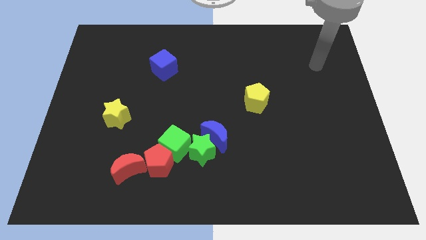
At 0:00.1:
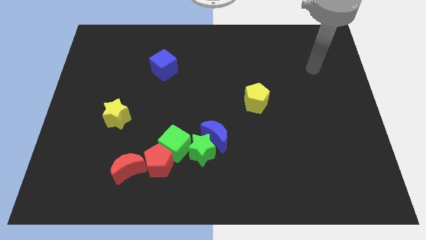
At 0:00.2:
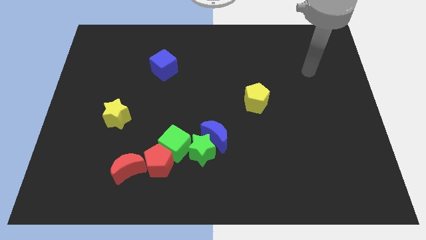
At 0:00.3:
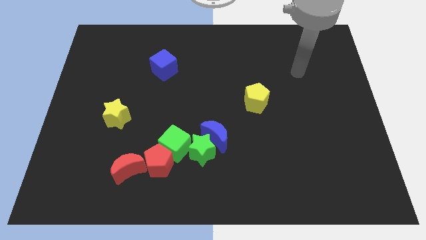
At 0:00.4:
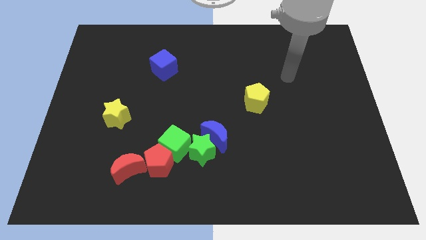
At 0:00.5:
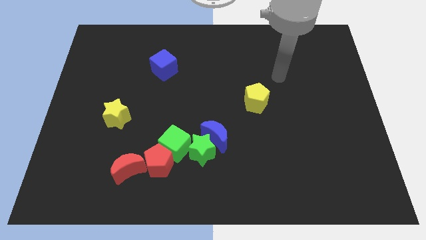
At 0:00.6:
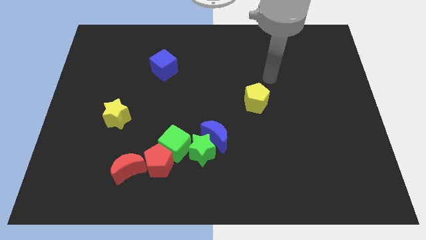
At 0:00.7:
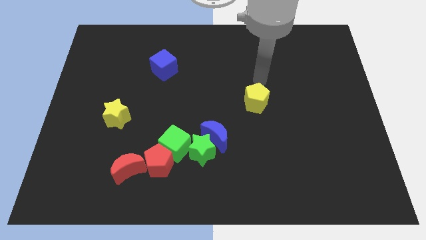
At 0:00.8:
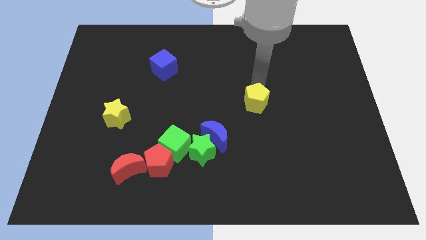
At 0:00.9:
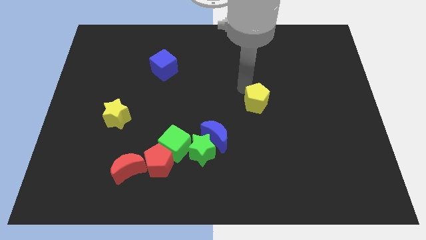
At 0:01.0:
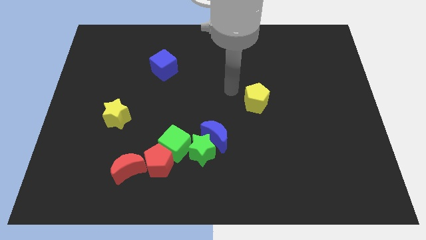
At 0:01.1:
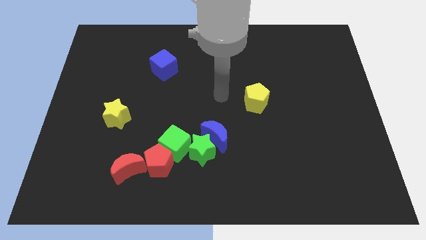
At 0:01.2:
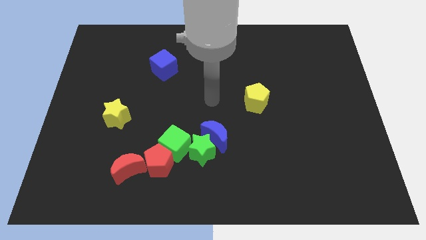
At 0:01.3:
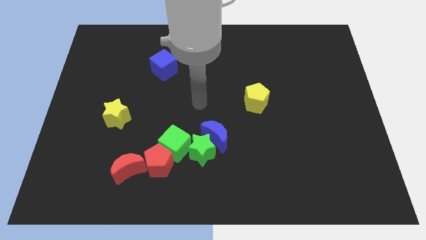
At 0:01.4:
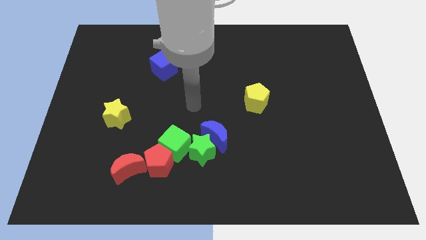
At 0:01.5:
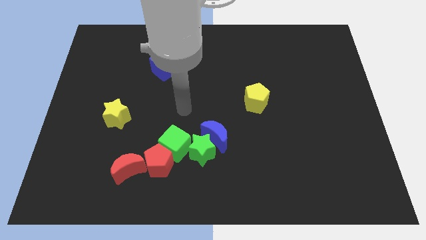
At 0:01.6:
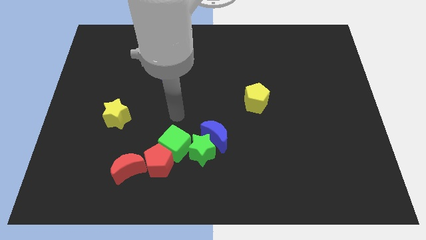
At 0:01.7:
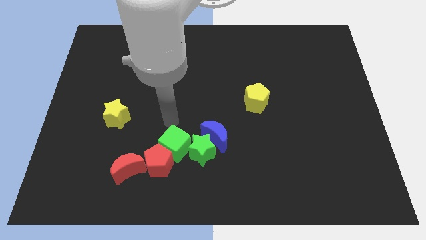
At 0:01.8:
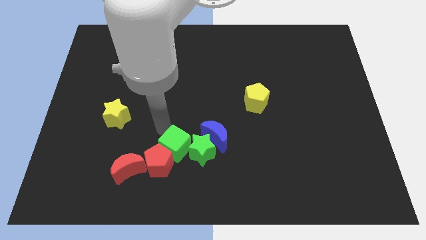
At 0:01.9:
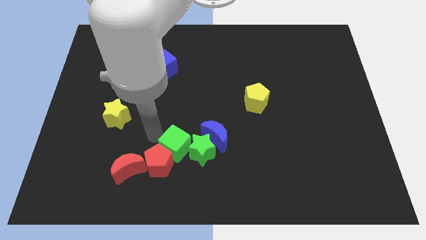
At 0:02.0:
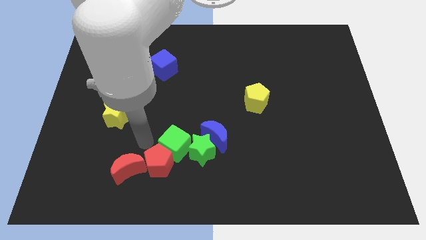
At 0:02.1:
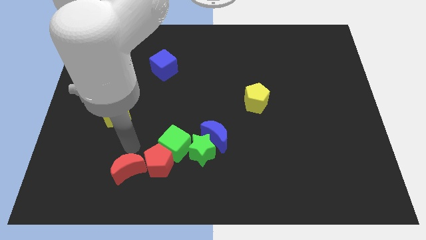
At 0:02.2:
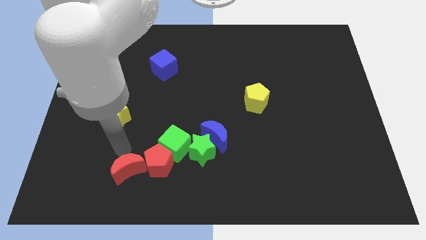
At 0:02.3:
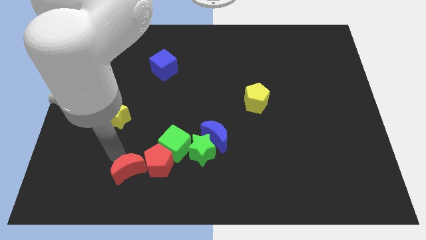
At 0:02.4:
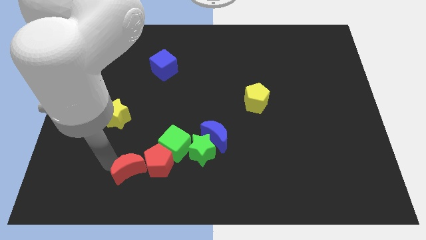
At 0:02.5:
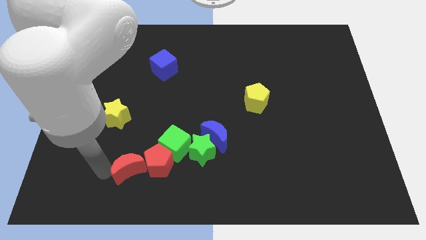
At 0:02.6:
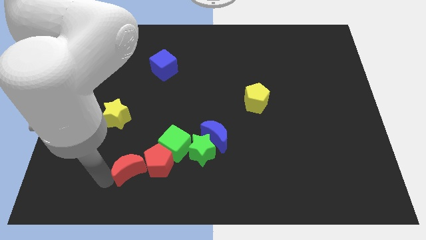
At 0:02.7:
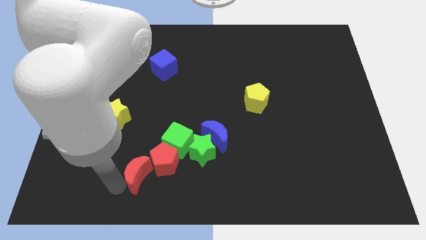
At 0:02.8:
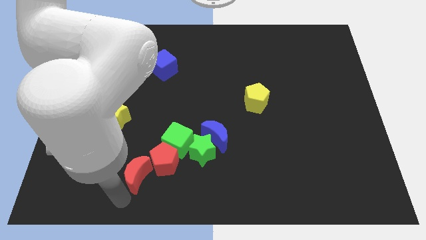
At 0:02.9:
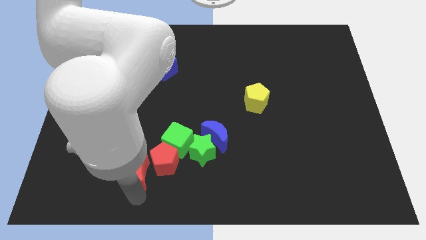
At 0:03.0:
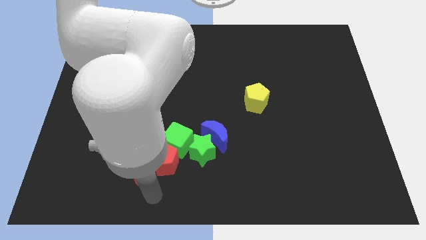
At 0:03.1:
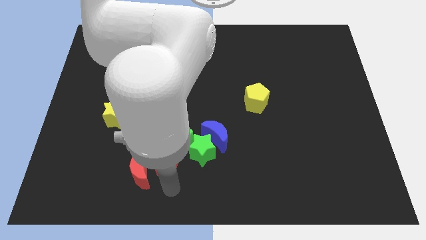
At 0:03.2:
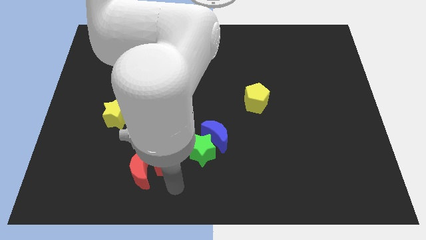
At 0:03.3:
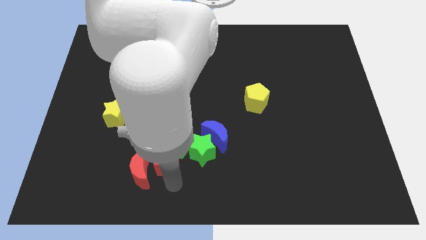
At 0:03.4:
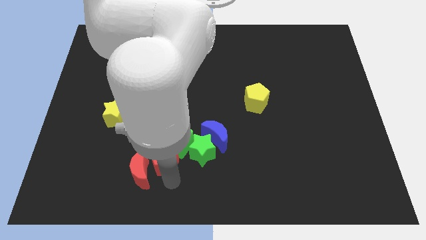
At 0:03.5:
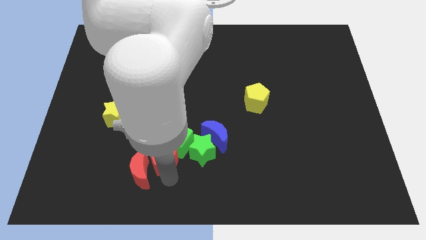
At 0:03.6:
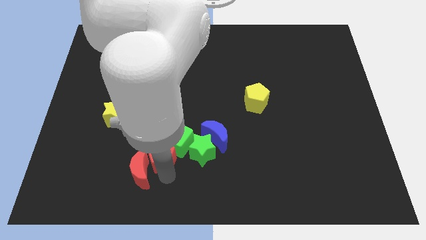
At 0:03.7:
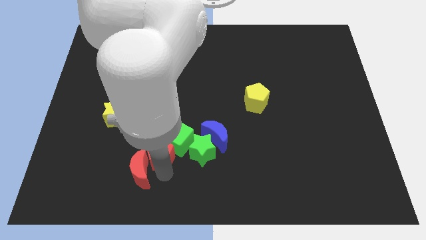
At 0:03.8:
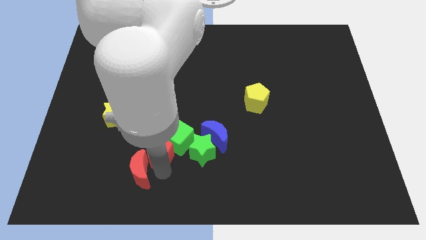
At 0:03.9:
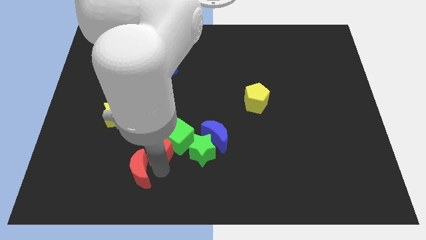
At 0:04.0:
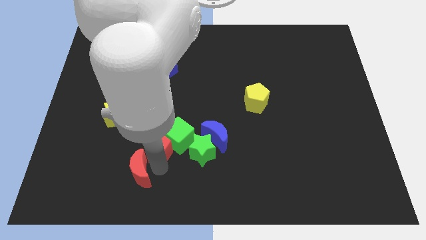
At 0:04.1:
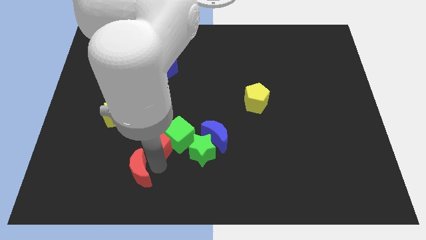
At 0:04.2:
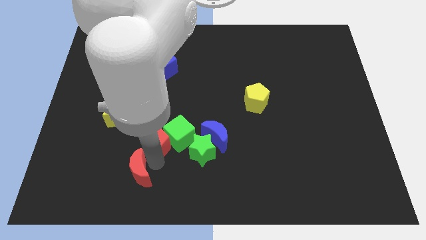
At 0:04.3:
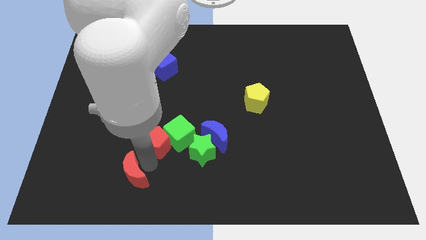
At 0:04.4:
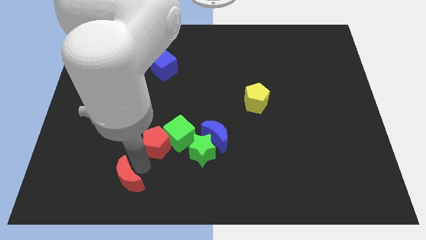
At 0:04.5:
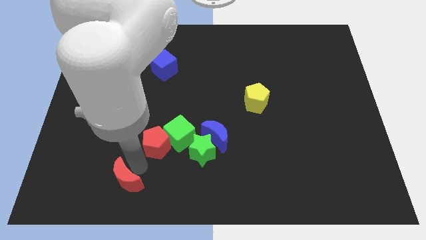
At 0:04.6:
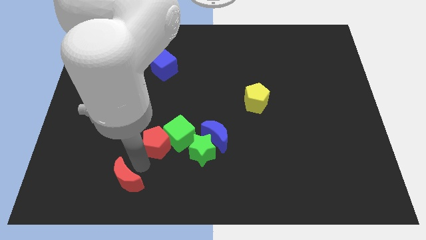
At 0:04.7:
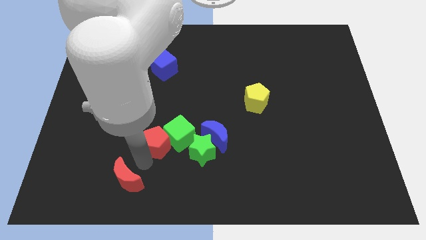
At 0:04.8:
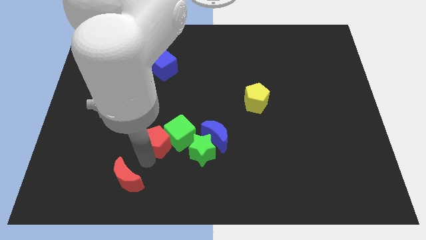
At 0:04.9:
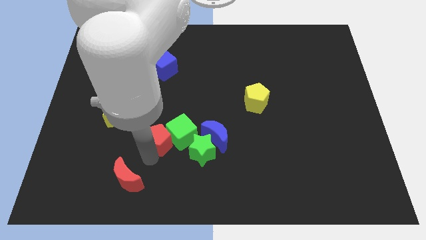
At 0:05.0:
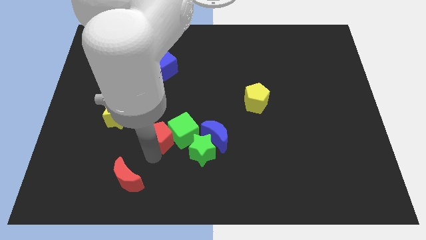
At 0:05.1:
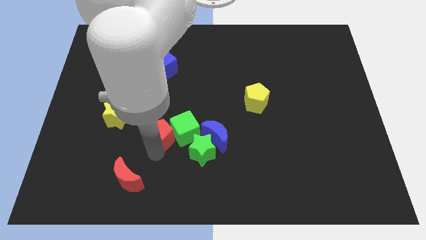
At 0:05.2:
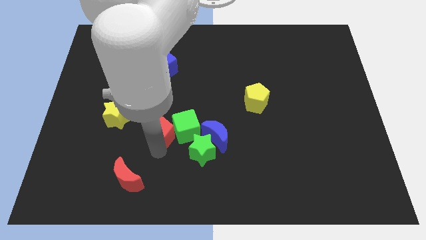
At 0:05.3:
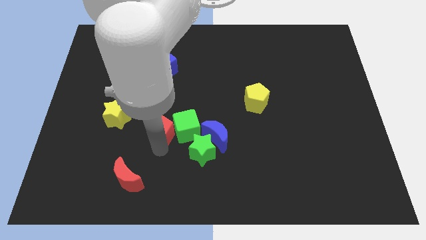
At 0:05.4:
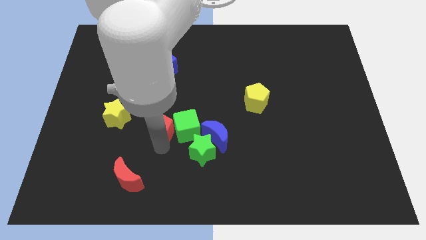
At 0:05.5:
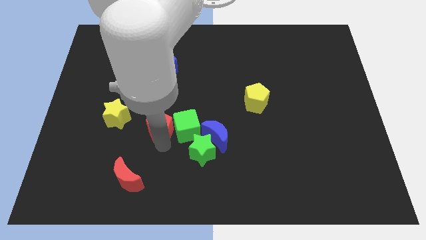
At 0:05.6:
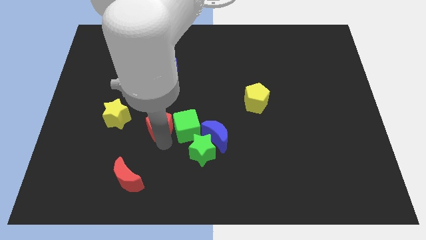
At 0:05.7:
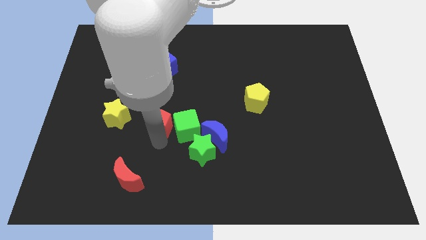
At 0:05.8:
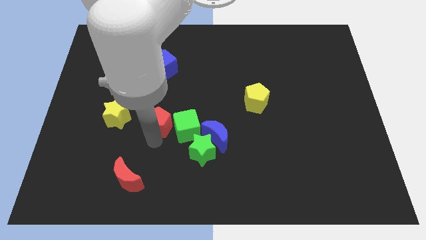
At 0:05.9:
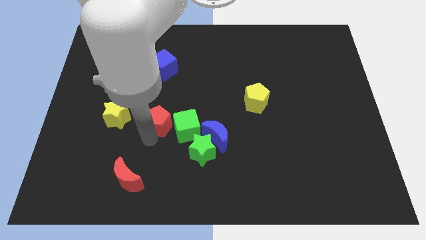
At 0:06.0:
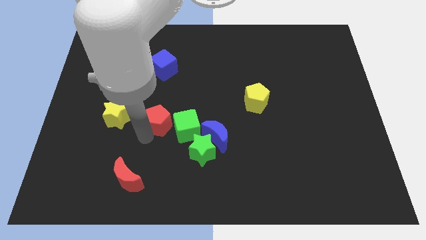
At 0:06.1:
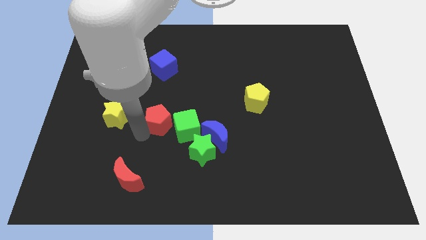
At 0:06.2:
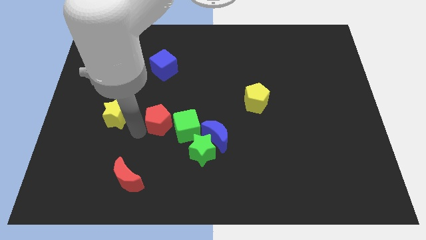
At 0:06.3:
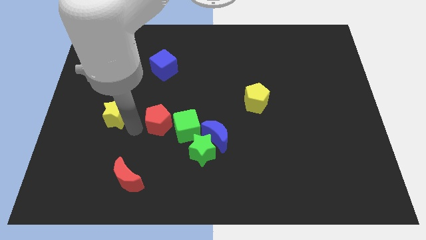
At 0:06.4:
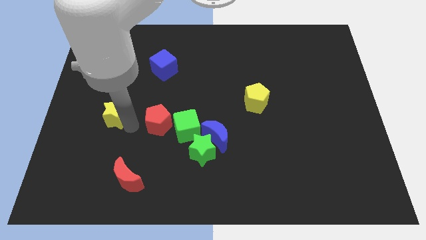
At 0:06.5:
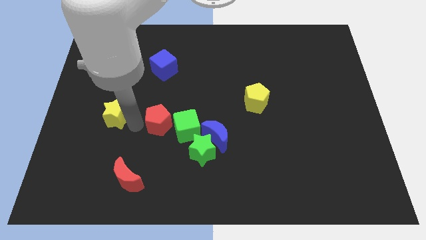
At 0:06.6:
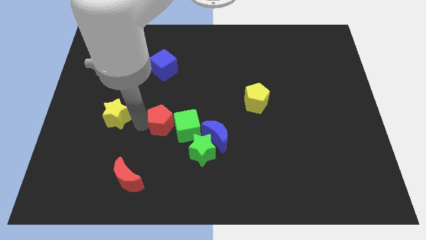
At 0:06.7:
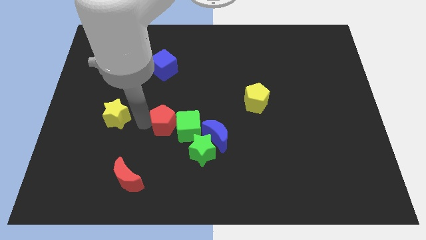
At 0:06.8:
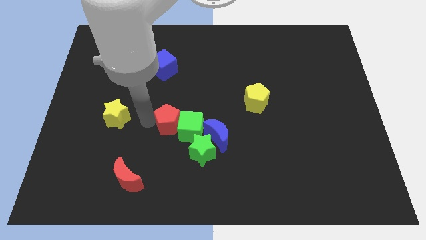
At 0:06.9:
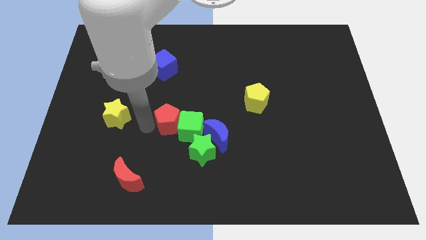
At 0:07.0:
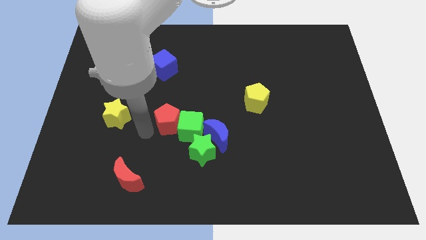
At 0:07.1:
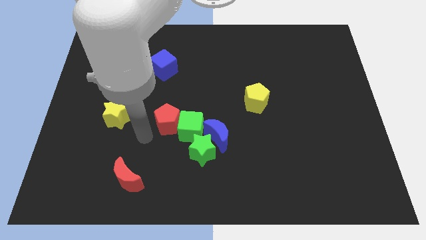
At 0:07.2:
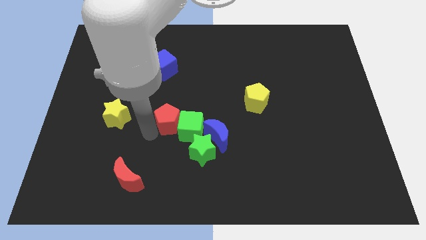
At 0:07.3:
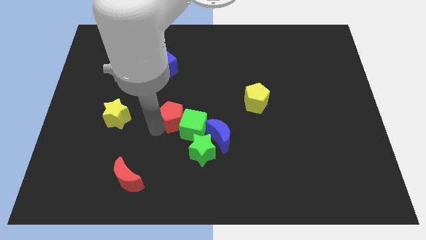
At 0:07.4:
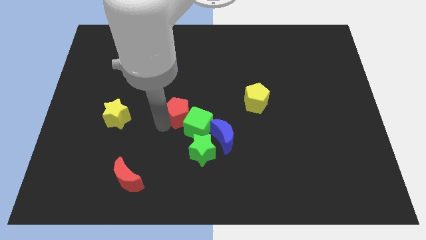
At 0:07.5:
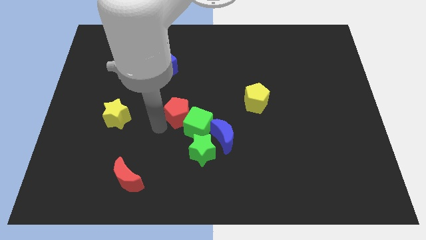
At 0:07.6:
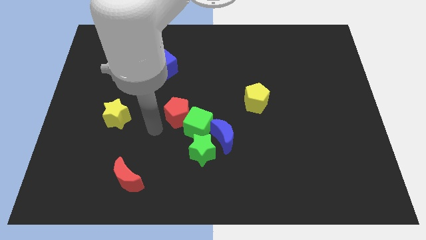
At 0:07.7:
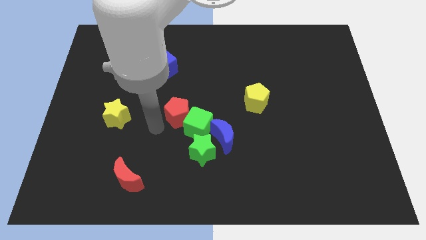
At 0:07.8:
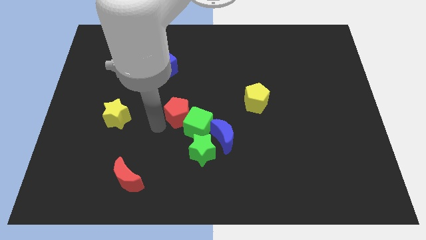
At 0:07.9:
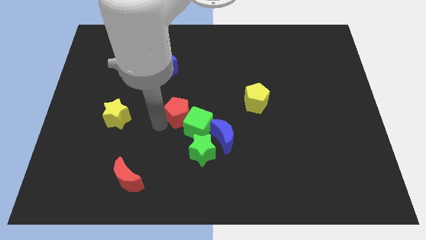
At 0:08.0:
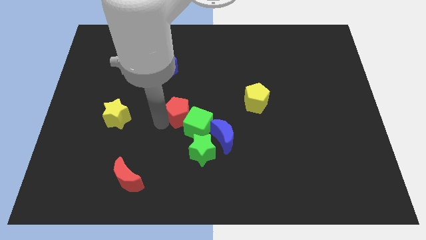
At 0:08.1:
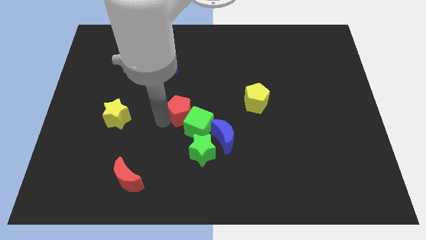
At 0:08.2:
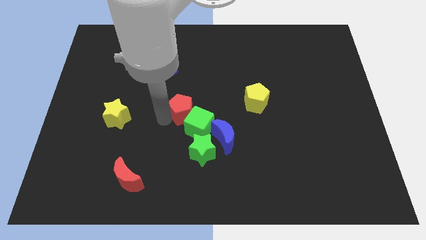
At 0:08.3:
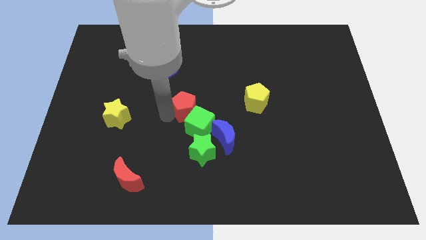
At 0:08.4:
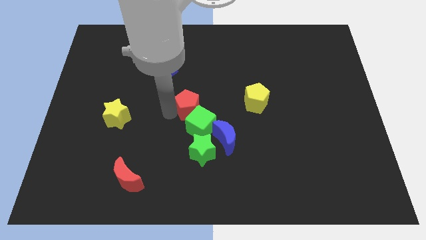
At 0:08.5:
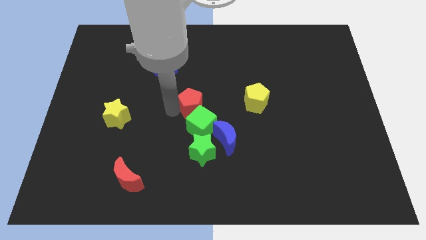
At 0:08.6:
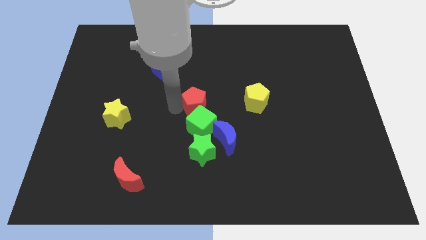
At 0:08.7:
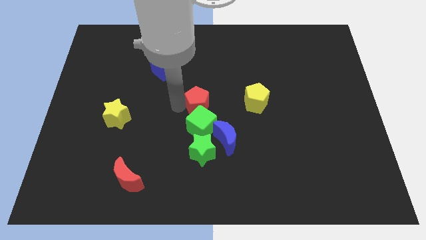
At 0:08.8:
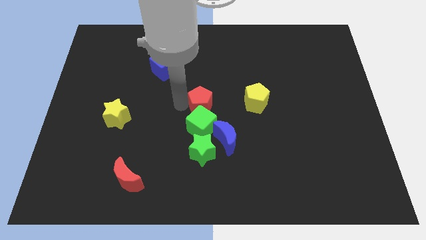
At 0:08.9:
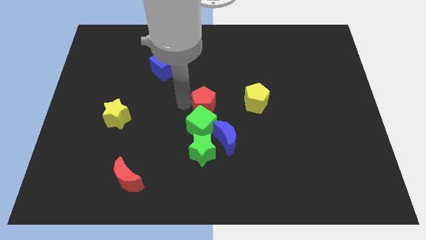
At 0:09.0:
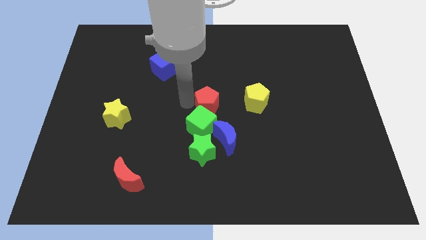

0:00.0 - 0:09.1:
slide the red pentagon to the top of the blue moon
